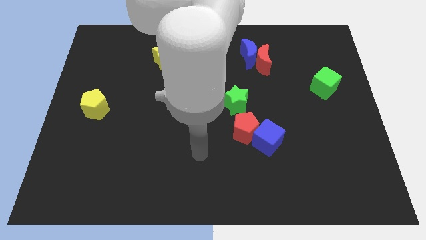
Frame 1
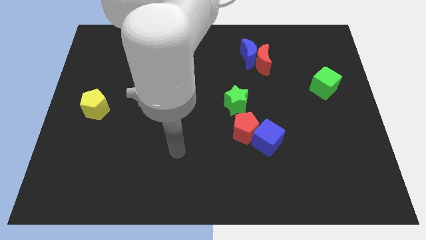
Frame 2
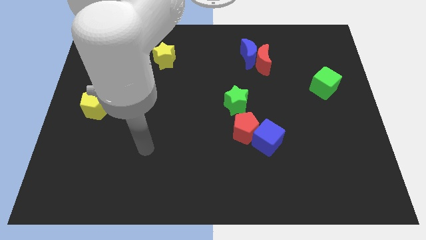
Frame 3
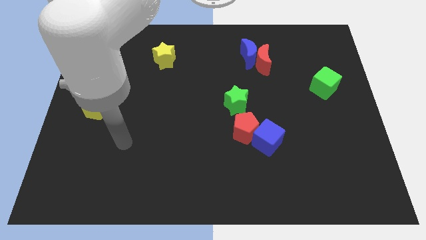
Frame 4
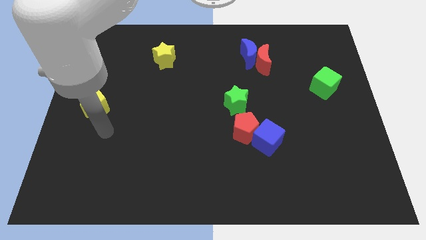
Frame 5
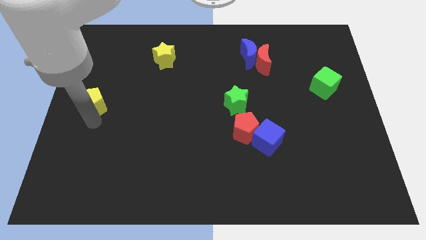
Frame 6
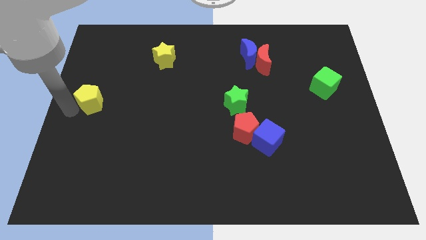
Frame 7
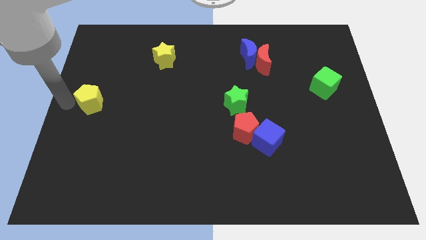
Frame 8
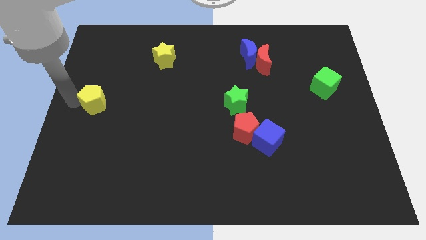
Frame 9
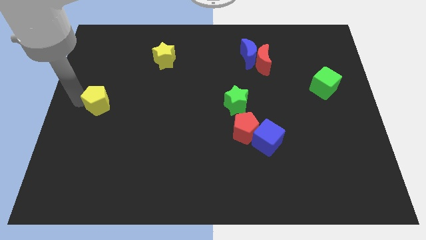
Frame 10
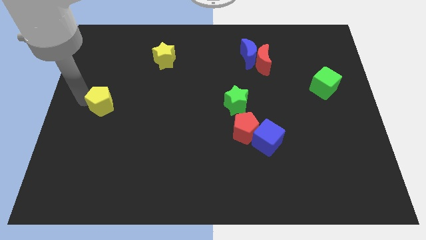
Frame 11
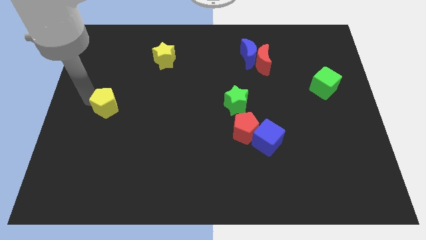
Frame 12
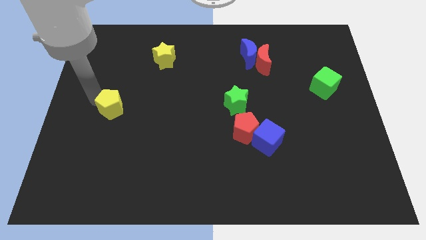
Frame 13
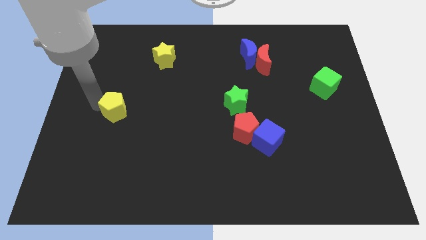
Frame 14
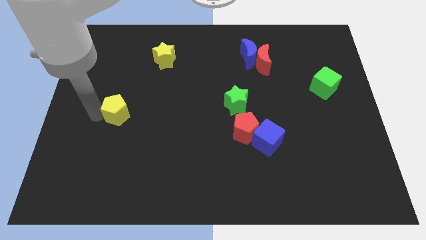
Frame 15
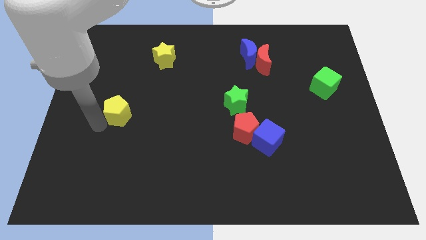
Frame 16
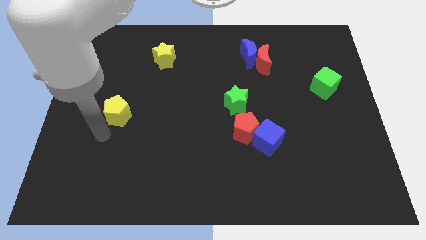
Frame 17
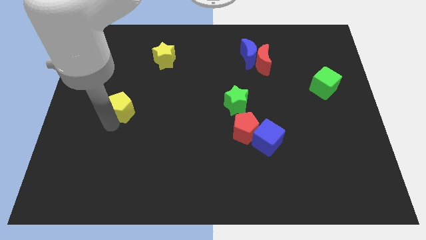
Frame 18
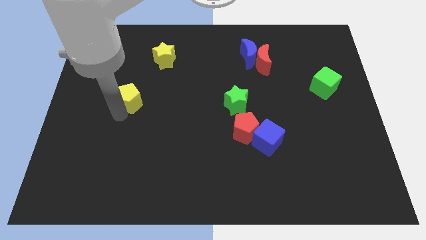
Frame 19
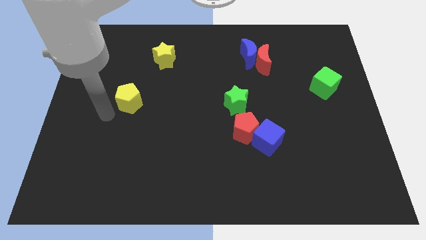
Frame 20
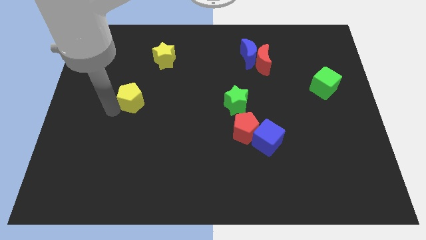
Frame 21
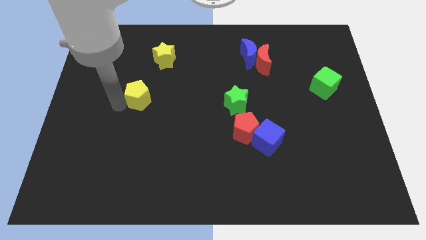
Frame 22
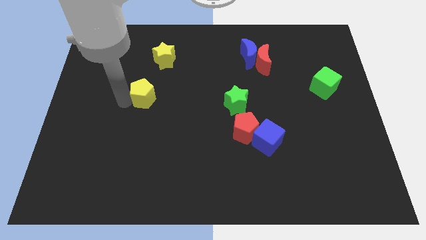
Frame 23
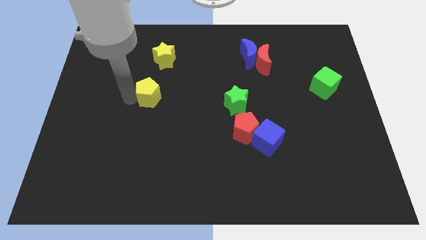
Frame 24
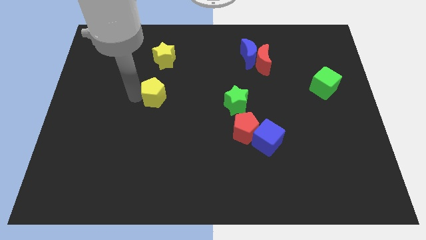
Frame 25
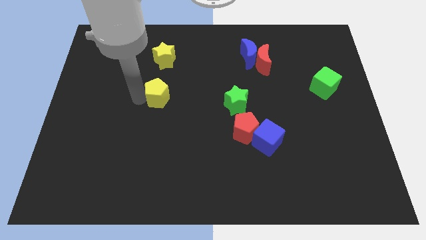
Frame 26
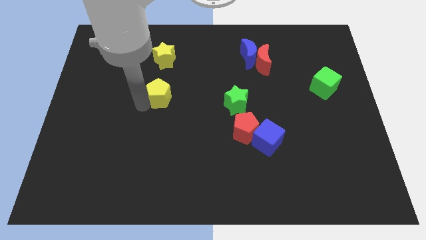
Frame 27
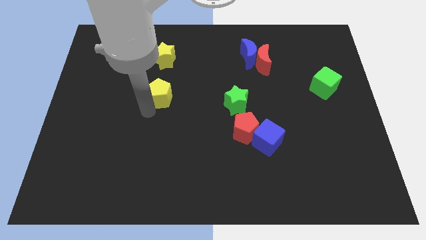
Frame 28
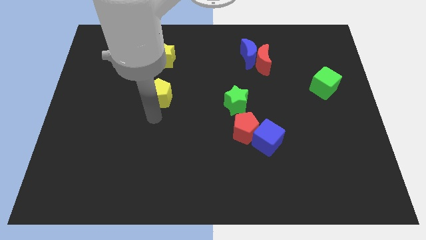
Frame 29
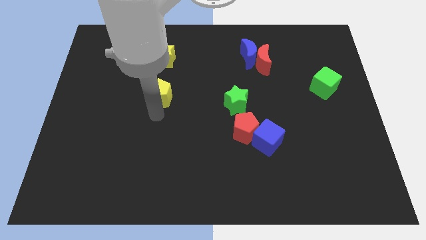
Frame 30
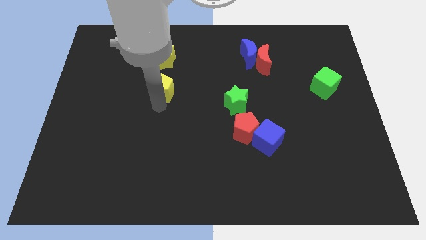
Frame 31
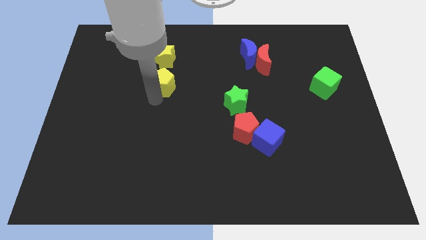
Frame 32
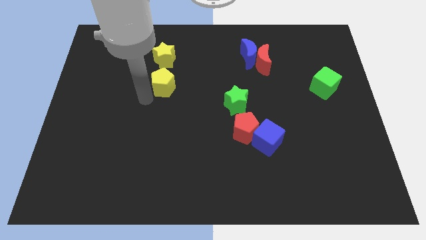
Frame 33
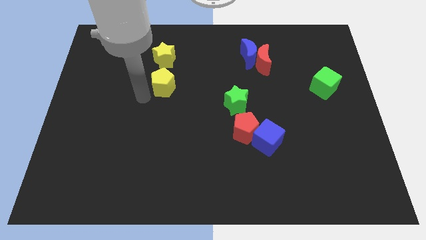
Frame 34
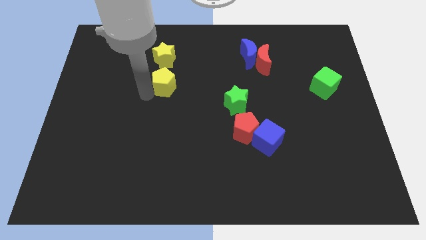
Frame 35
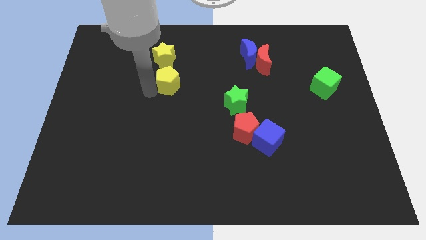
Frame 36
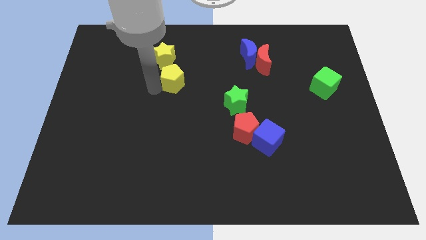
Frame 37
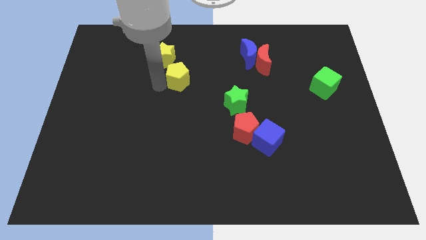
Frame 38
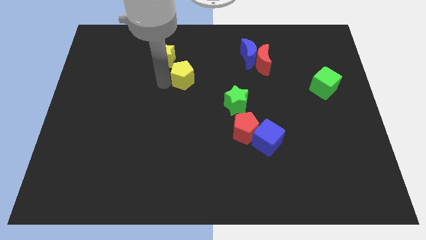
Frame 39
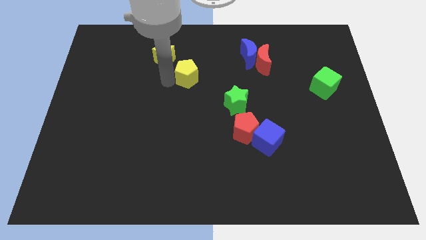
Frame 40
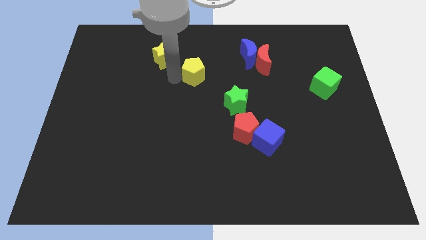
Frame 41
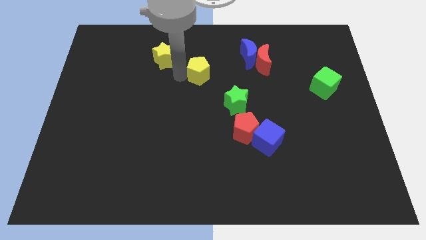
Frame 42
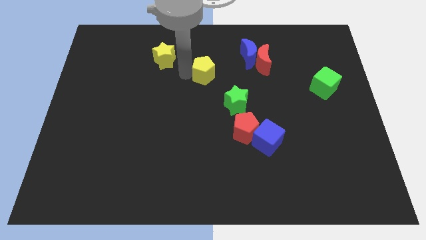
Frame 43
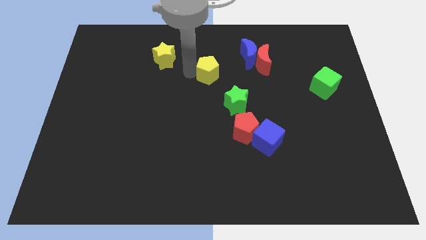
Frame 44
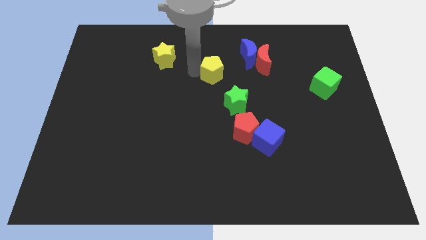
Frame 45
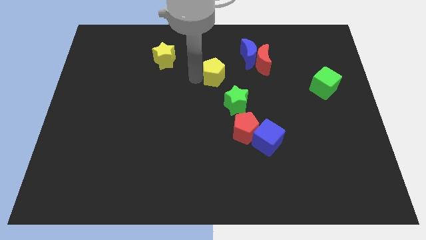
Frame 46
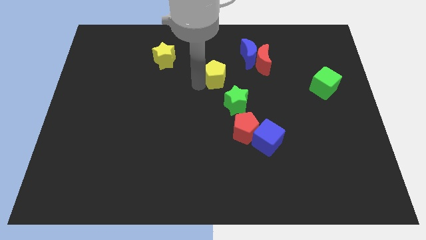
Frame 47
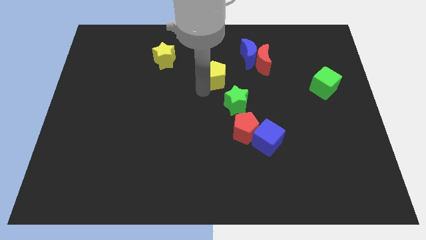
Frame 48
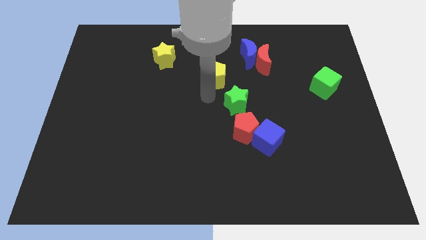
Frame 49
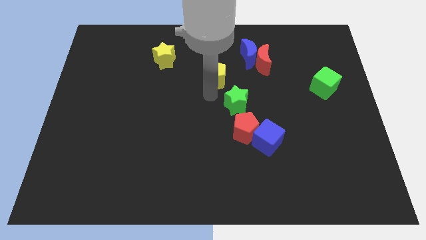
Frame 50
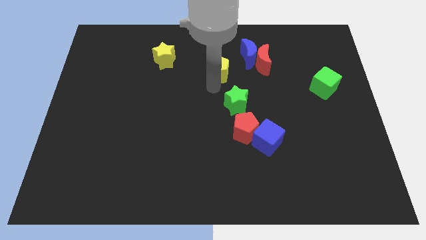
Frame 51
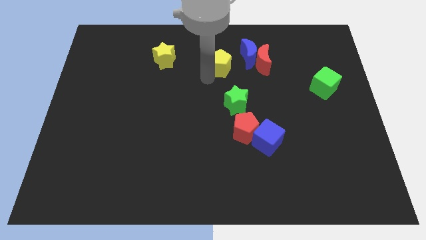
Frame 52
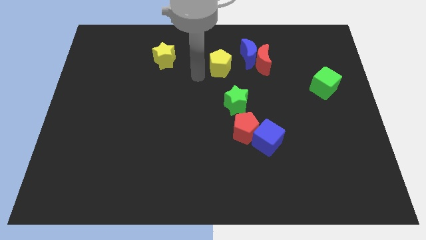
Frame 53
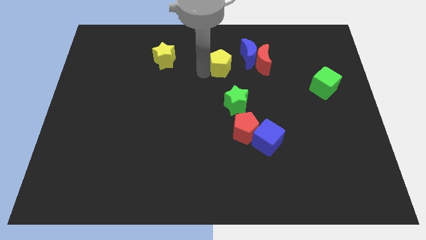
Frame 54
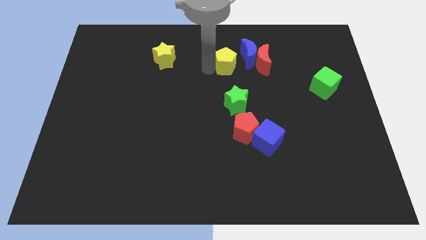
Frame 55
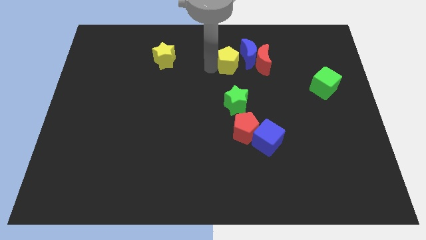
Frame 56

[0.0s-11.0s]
slide the yellow pentagon next to the blue moon

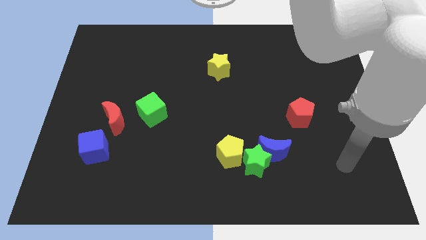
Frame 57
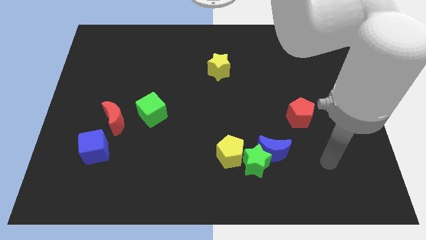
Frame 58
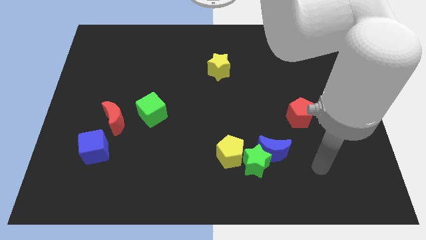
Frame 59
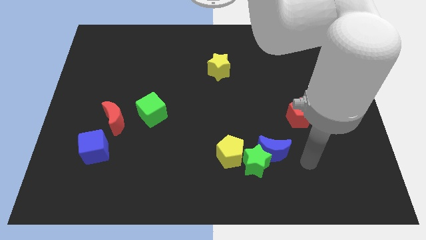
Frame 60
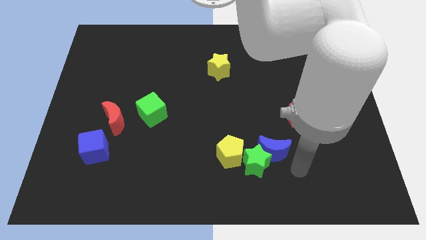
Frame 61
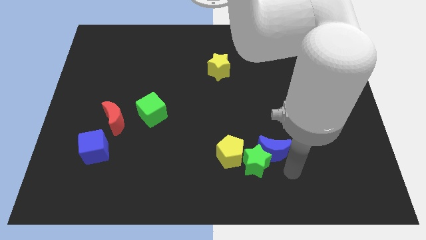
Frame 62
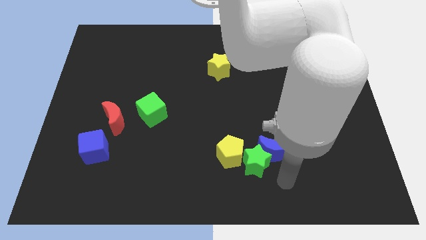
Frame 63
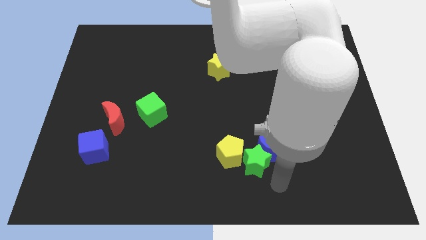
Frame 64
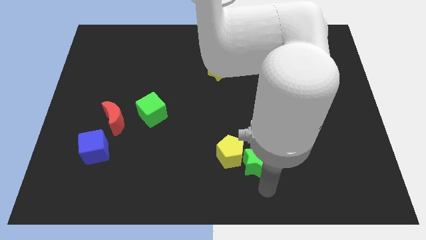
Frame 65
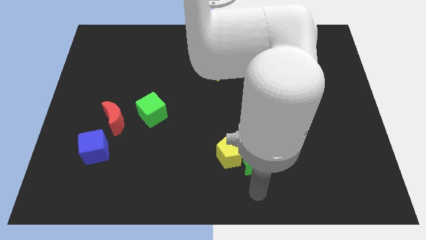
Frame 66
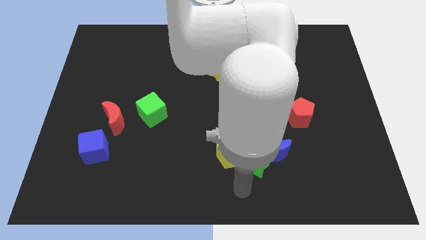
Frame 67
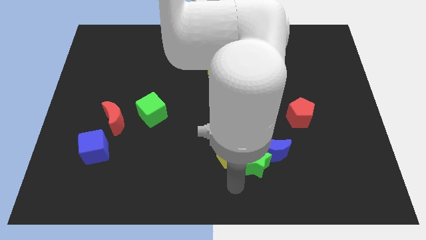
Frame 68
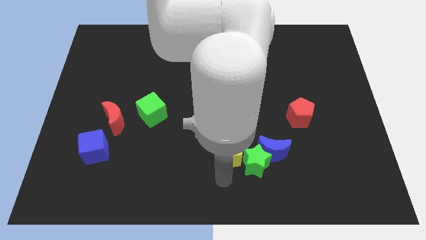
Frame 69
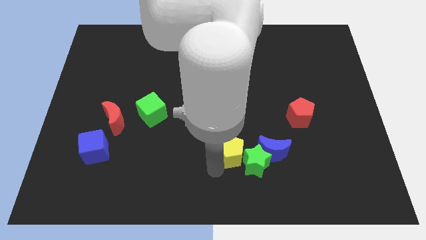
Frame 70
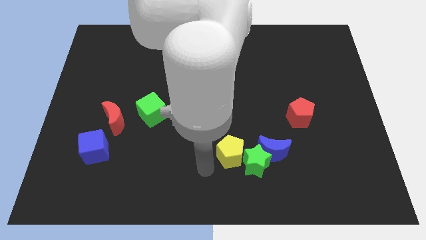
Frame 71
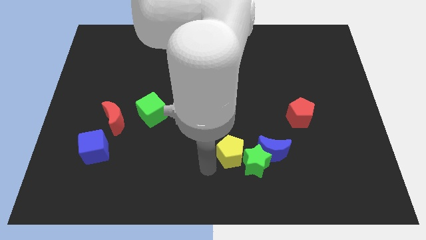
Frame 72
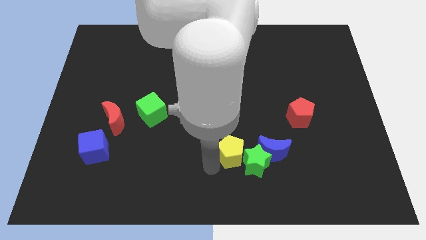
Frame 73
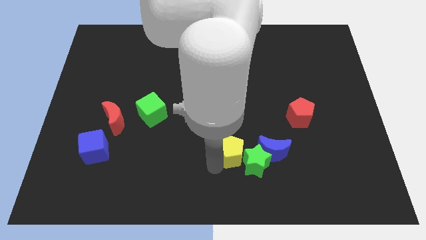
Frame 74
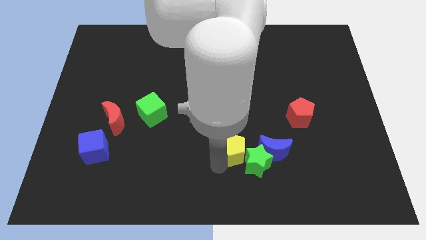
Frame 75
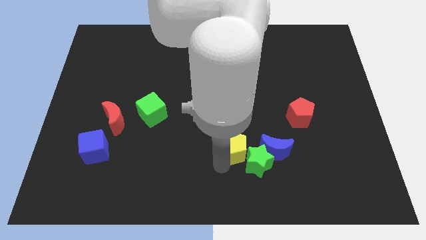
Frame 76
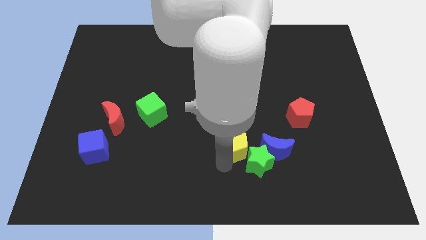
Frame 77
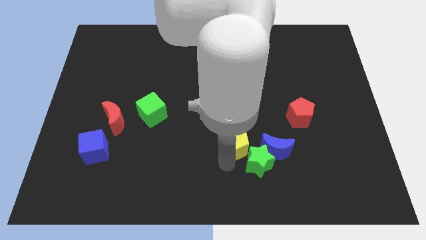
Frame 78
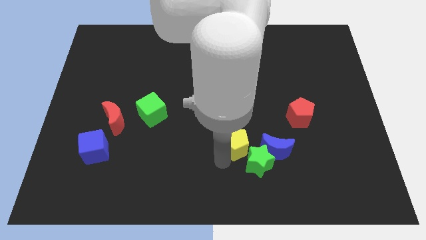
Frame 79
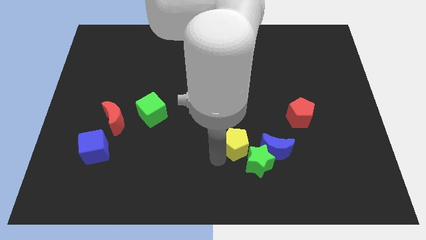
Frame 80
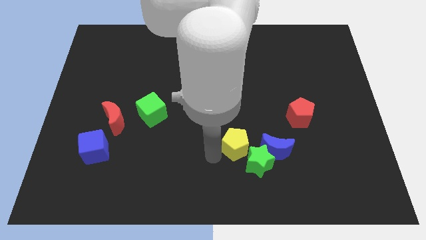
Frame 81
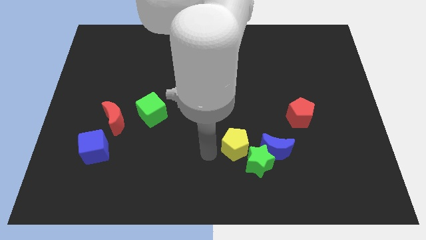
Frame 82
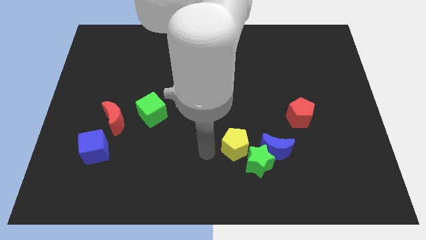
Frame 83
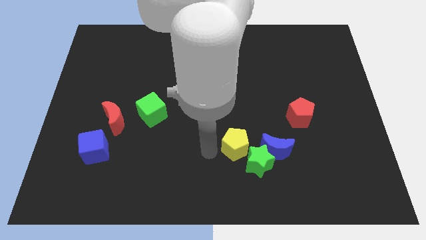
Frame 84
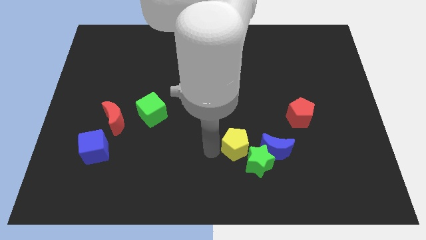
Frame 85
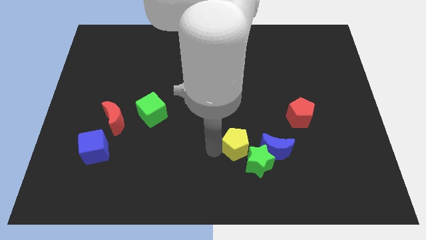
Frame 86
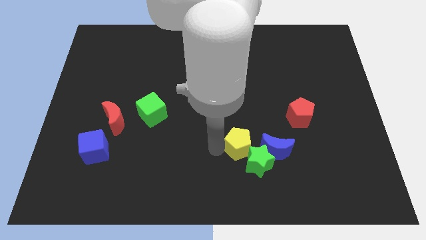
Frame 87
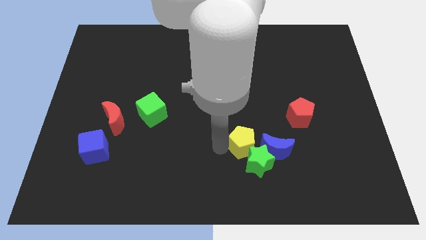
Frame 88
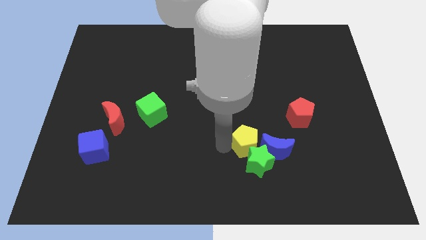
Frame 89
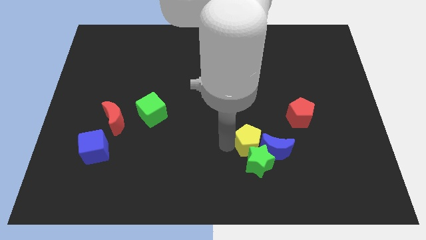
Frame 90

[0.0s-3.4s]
push the yellow pentagon to the blue moon
